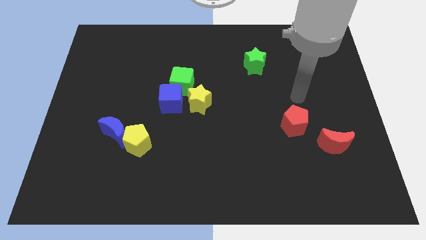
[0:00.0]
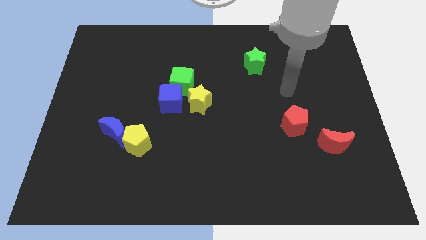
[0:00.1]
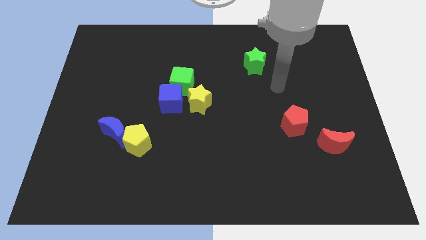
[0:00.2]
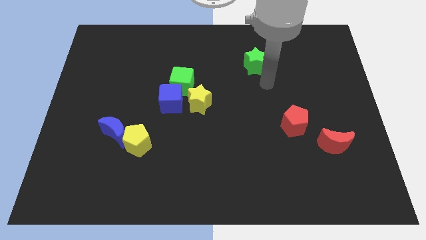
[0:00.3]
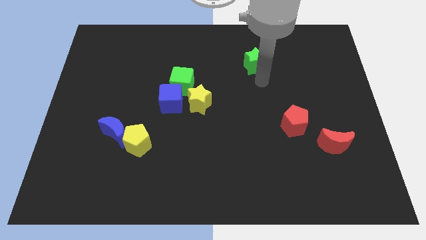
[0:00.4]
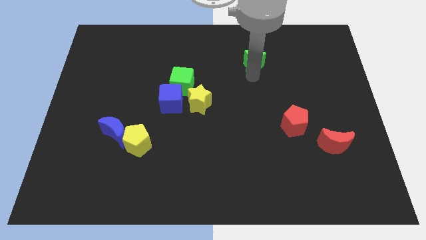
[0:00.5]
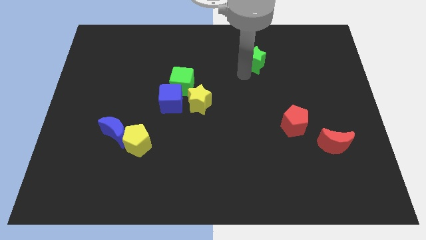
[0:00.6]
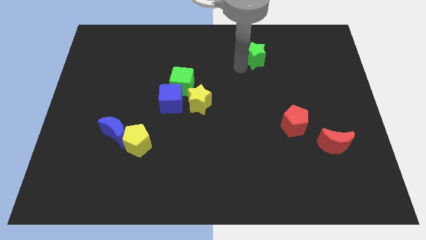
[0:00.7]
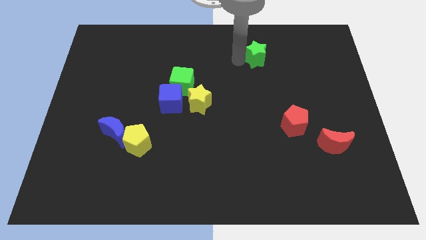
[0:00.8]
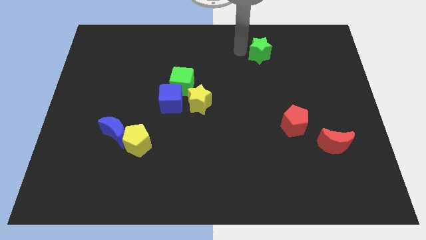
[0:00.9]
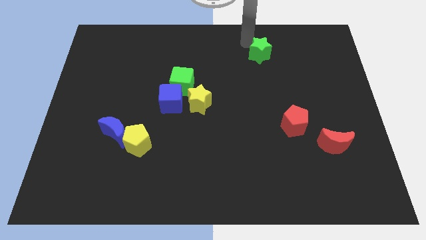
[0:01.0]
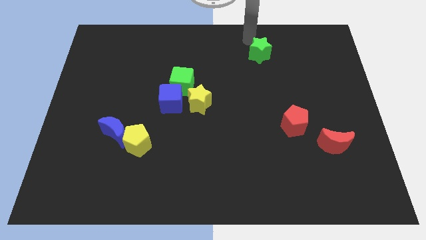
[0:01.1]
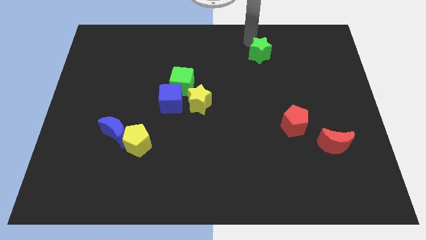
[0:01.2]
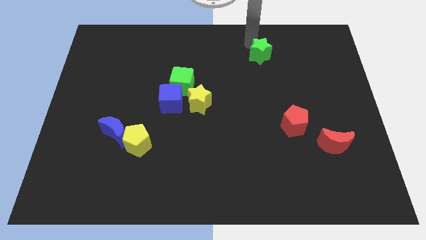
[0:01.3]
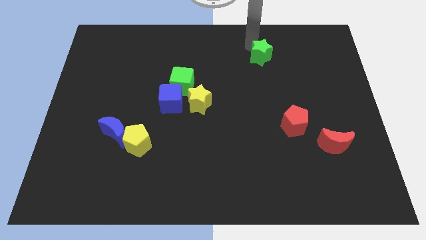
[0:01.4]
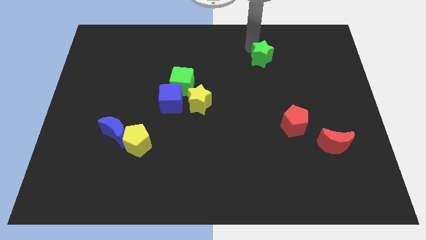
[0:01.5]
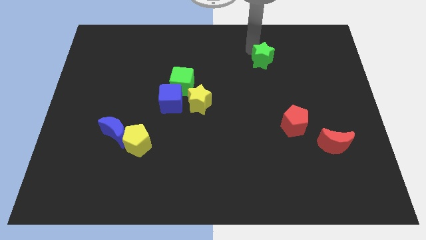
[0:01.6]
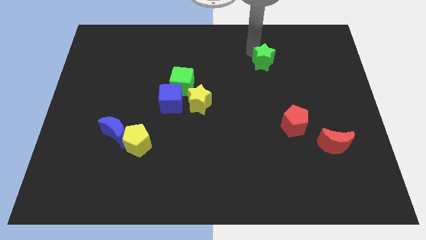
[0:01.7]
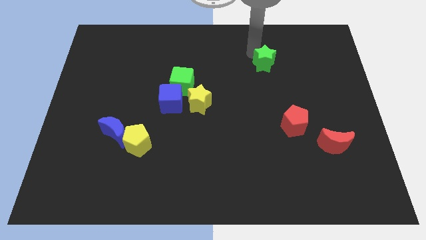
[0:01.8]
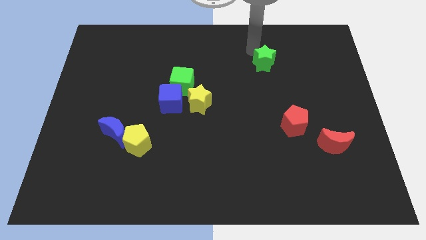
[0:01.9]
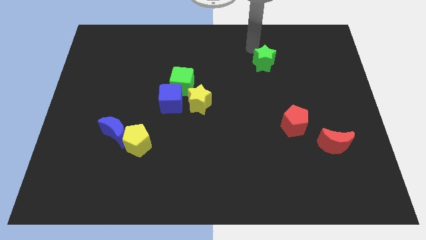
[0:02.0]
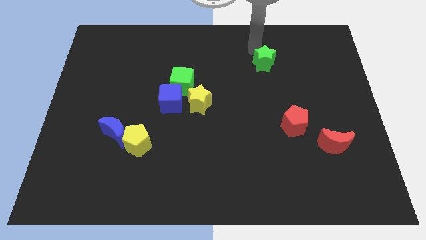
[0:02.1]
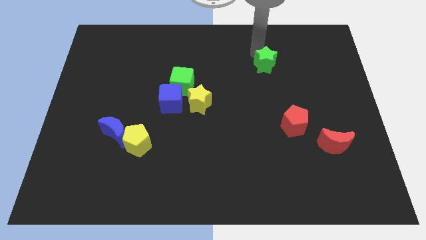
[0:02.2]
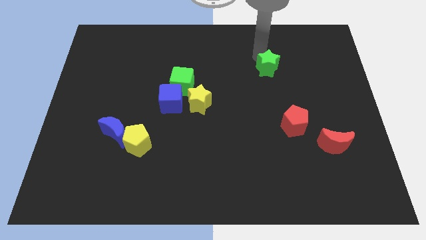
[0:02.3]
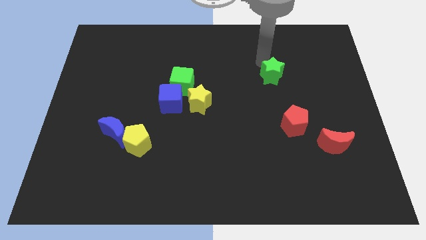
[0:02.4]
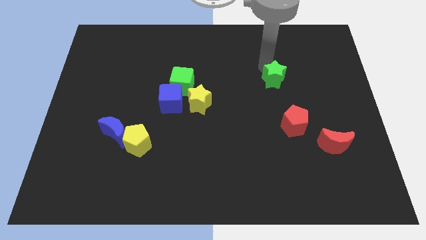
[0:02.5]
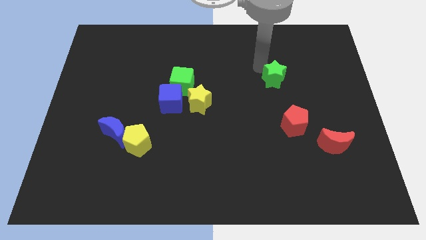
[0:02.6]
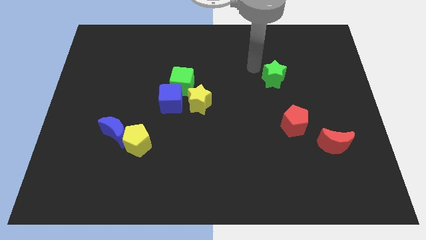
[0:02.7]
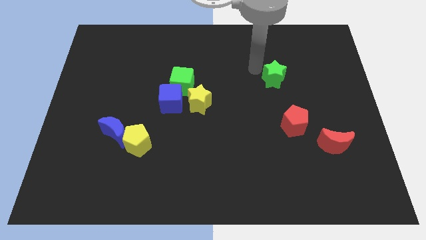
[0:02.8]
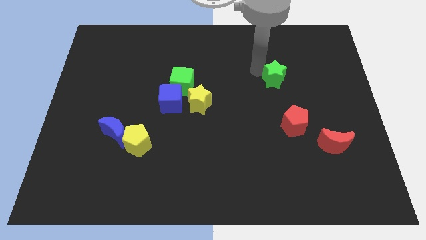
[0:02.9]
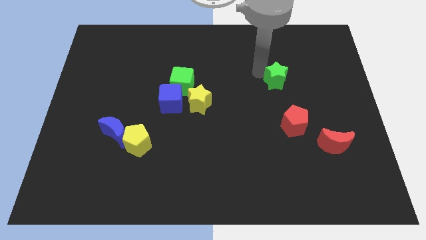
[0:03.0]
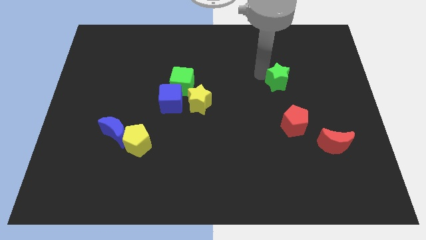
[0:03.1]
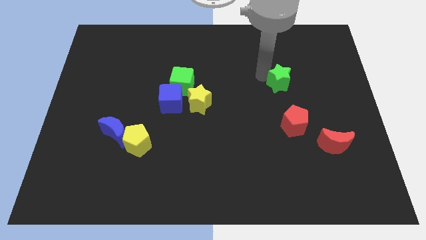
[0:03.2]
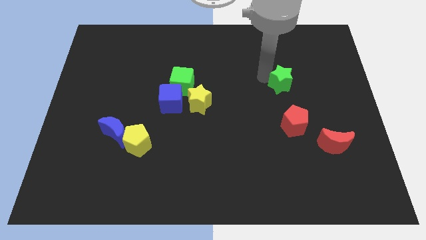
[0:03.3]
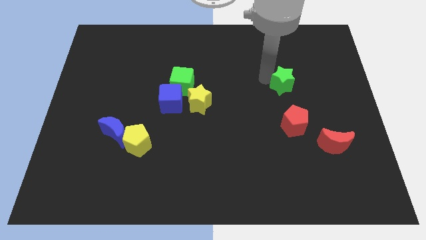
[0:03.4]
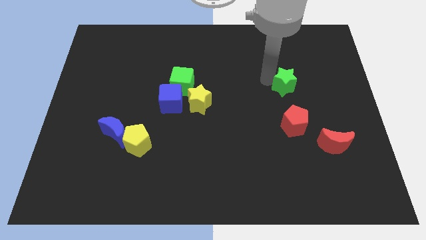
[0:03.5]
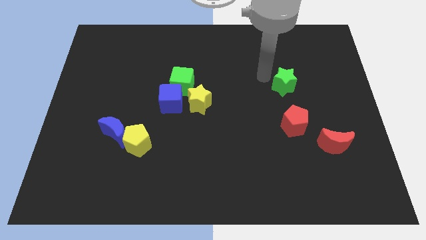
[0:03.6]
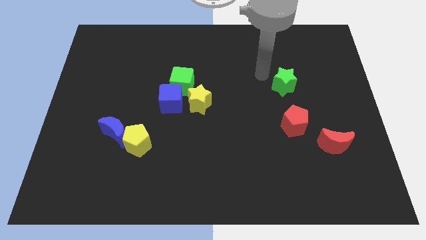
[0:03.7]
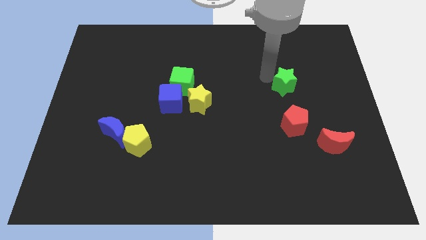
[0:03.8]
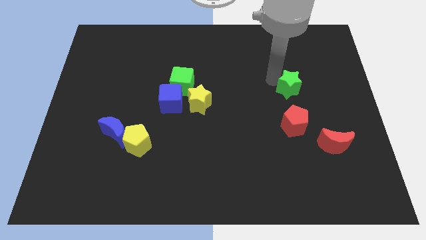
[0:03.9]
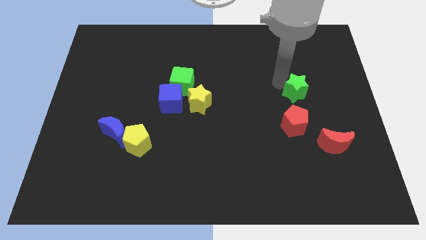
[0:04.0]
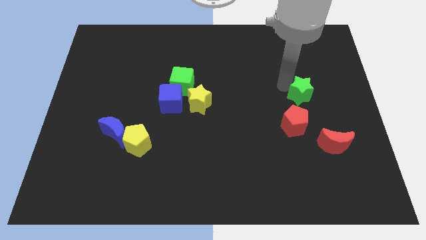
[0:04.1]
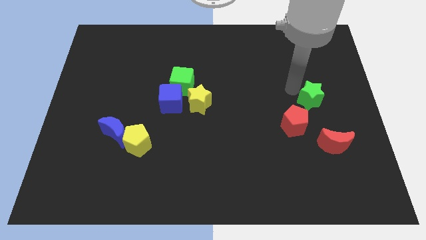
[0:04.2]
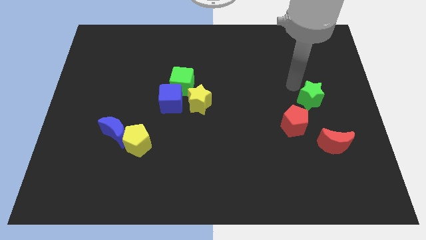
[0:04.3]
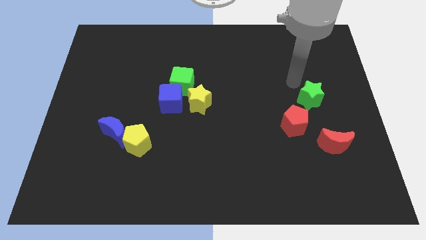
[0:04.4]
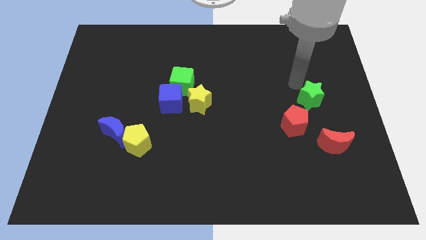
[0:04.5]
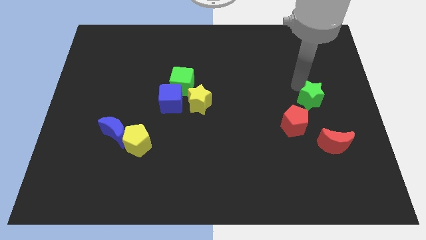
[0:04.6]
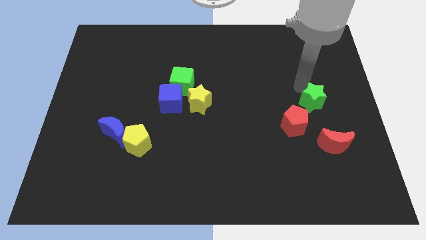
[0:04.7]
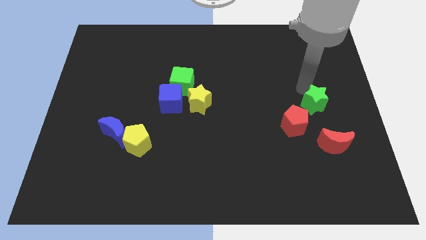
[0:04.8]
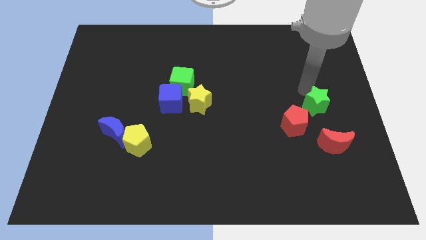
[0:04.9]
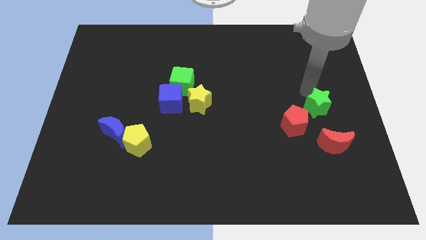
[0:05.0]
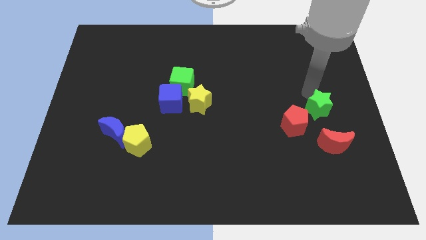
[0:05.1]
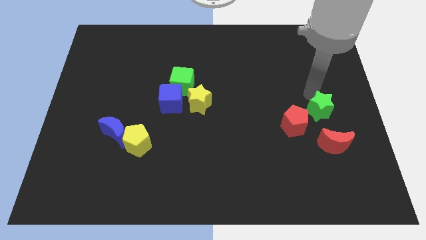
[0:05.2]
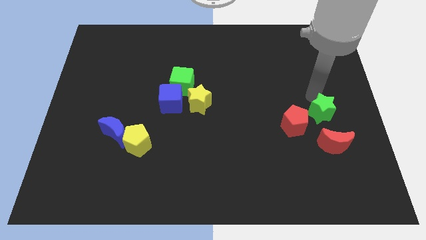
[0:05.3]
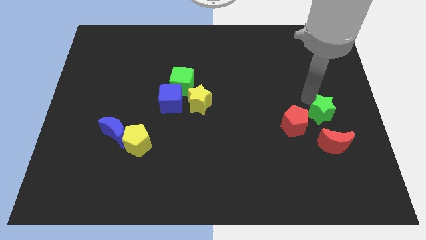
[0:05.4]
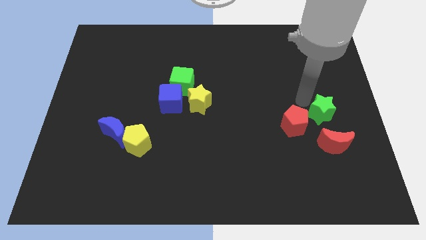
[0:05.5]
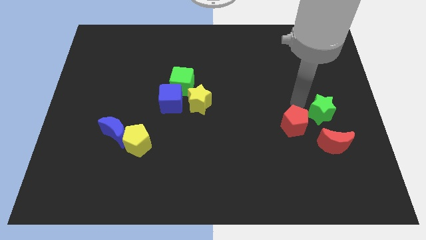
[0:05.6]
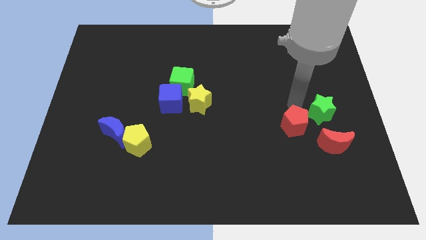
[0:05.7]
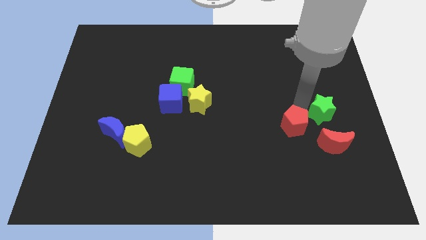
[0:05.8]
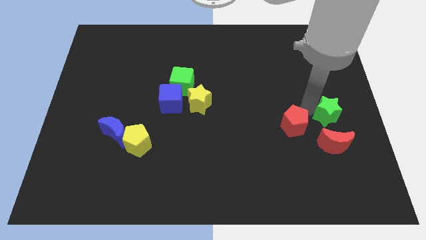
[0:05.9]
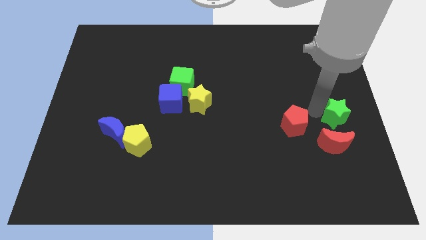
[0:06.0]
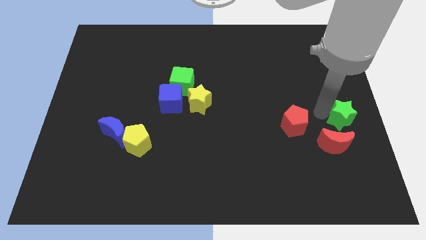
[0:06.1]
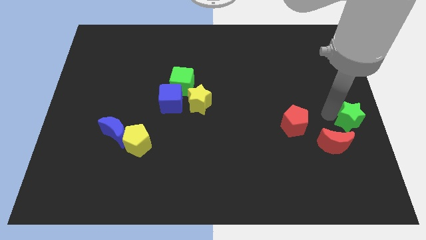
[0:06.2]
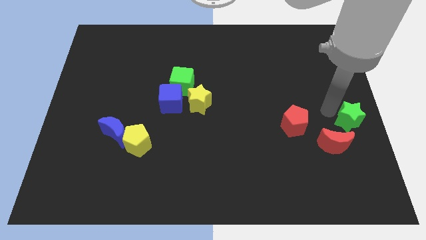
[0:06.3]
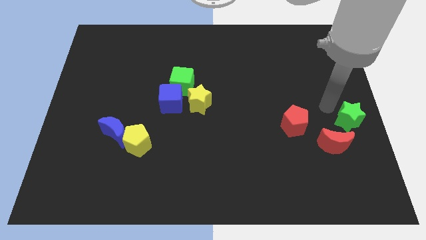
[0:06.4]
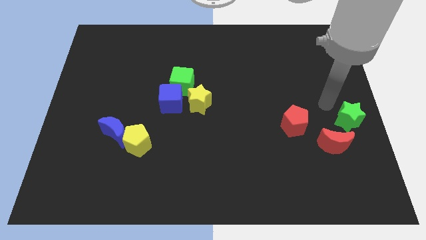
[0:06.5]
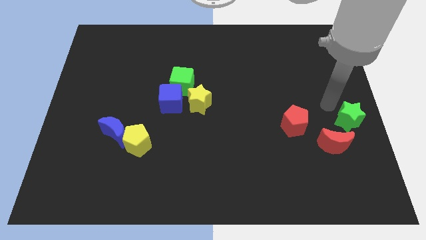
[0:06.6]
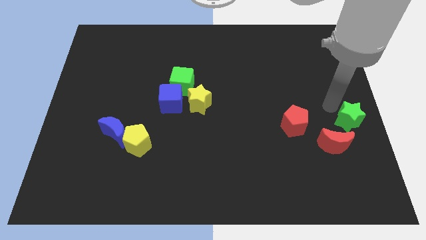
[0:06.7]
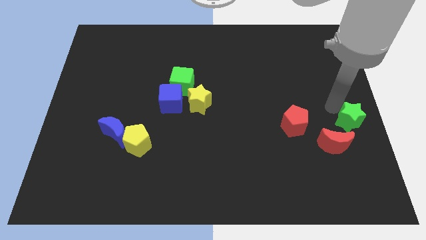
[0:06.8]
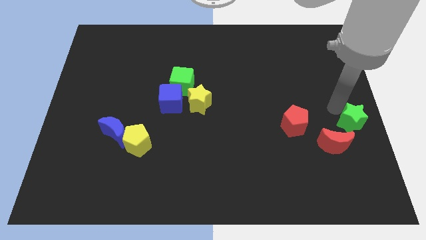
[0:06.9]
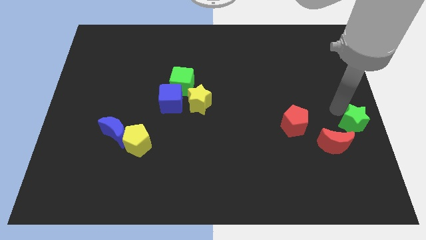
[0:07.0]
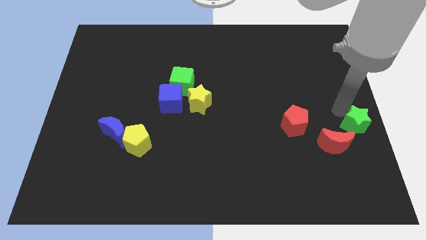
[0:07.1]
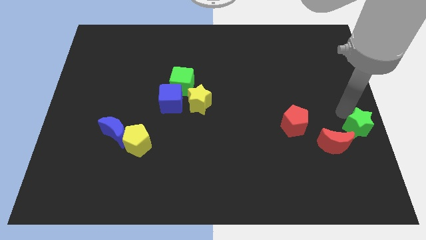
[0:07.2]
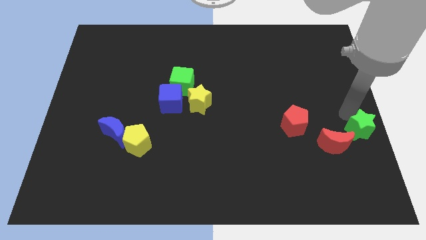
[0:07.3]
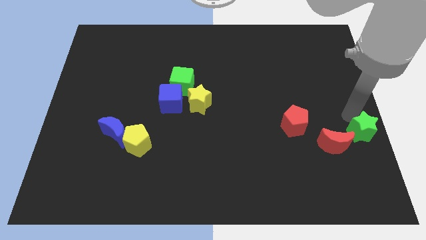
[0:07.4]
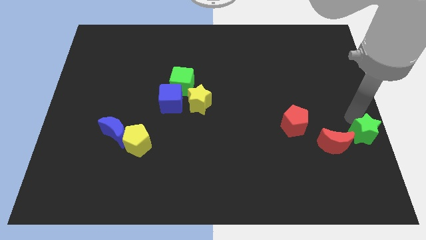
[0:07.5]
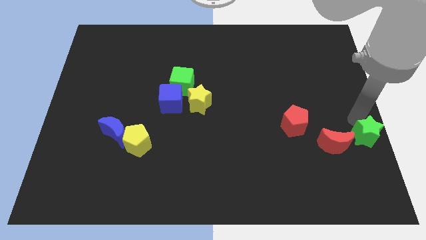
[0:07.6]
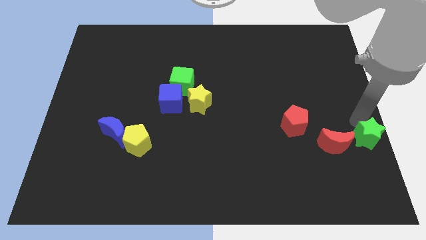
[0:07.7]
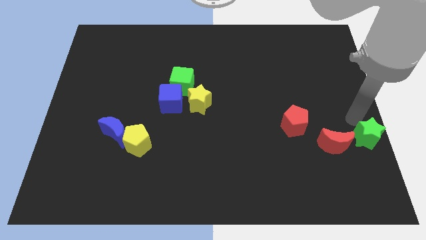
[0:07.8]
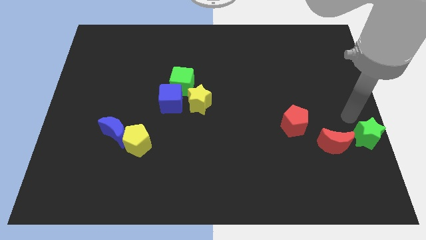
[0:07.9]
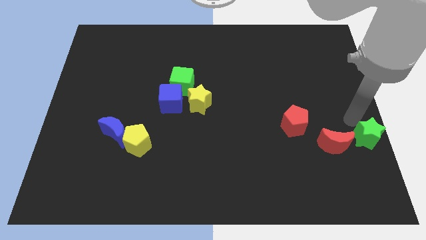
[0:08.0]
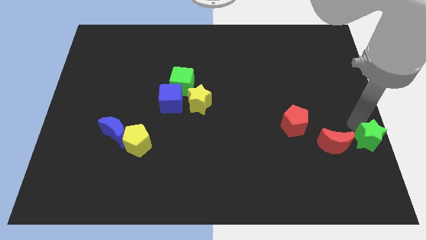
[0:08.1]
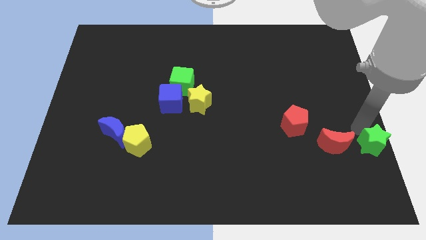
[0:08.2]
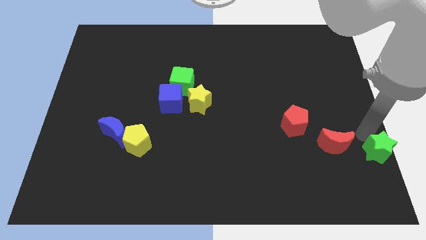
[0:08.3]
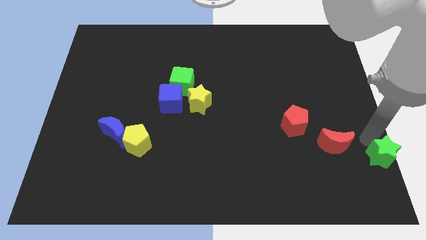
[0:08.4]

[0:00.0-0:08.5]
move the green star to the bottom right of the board
